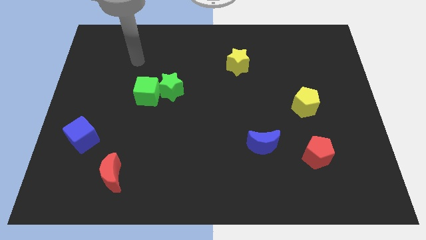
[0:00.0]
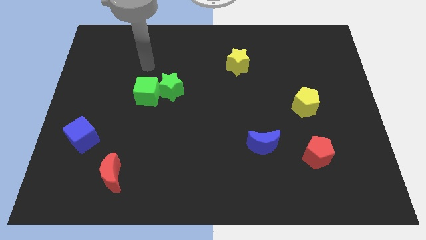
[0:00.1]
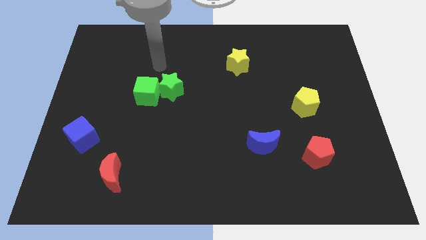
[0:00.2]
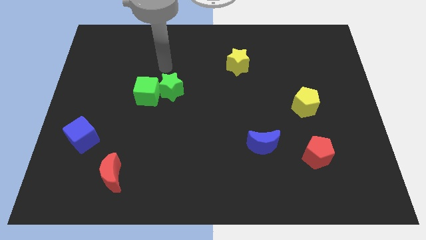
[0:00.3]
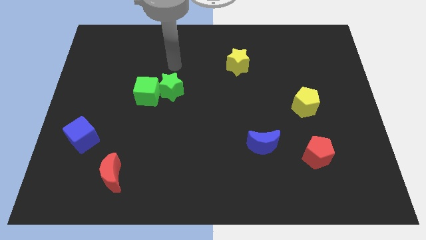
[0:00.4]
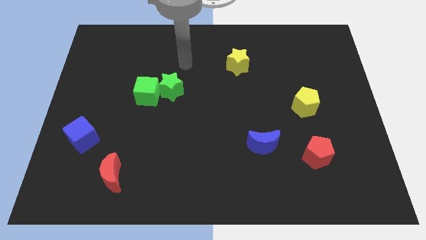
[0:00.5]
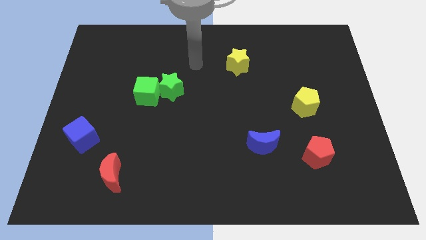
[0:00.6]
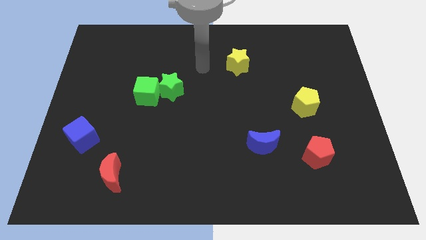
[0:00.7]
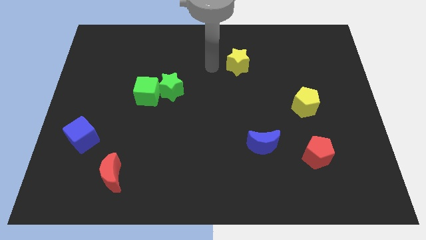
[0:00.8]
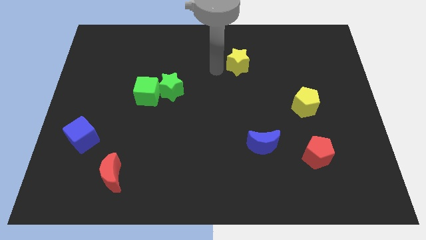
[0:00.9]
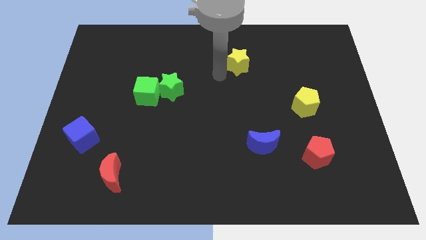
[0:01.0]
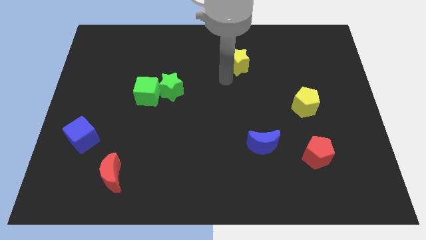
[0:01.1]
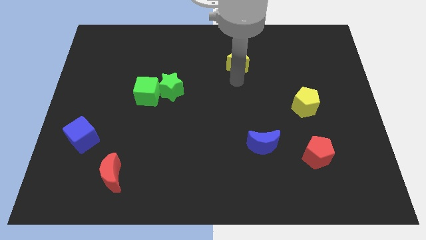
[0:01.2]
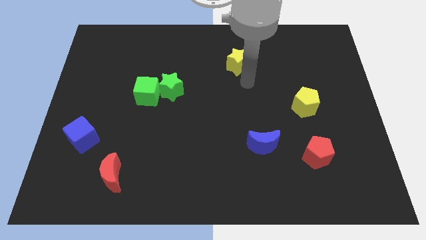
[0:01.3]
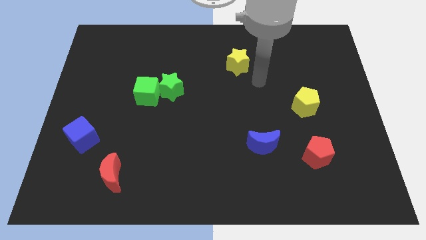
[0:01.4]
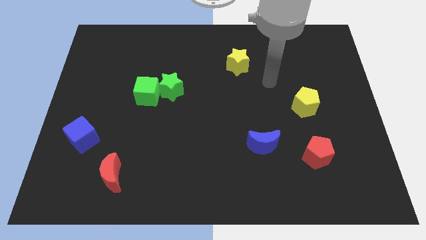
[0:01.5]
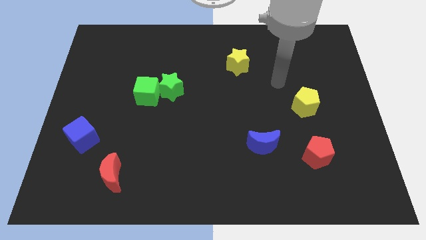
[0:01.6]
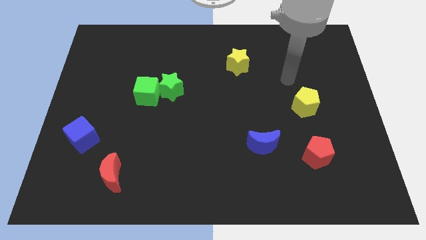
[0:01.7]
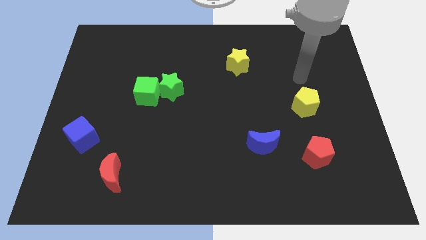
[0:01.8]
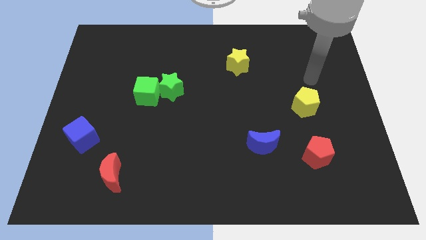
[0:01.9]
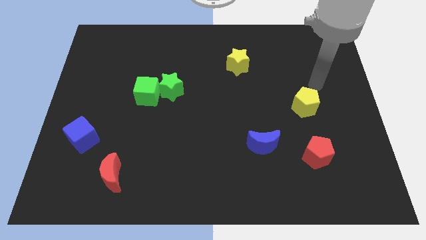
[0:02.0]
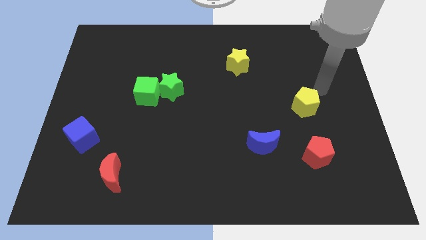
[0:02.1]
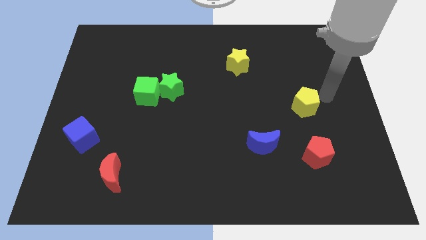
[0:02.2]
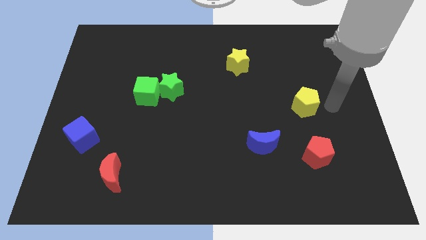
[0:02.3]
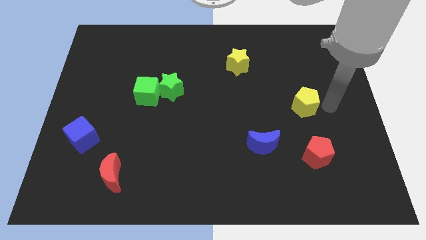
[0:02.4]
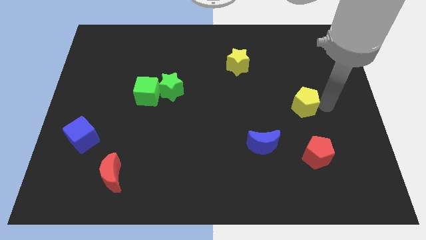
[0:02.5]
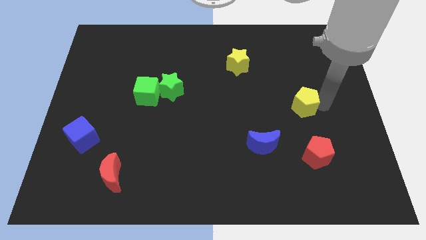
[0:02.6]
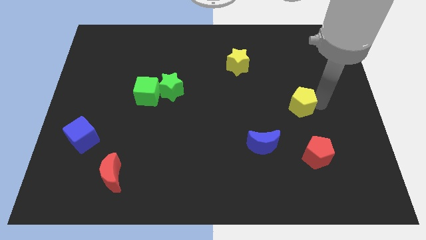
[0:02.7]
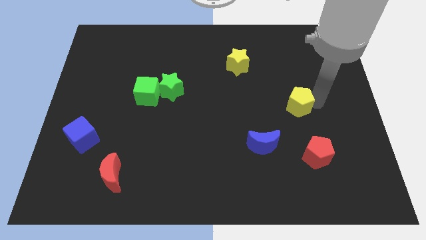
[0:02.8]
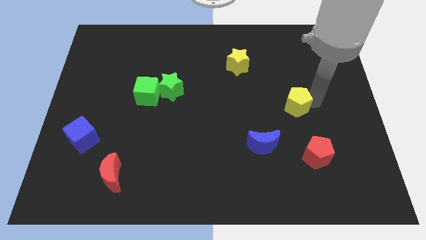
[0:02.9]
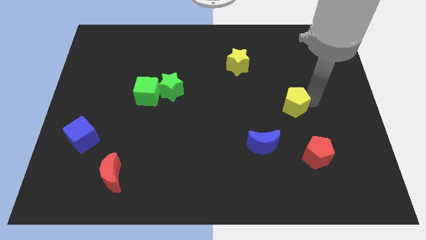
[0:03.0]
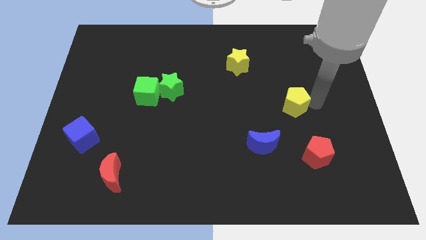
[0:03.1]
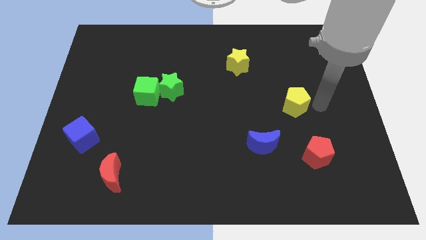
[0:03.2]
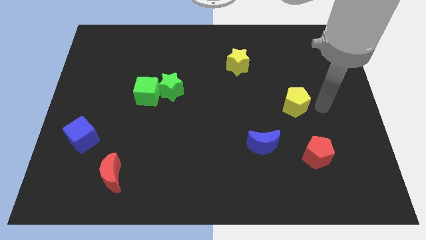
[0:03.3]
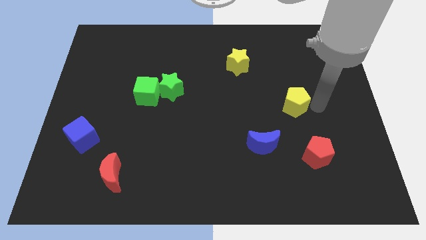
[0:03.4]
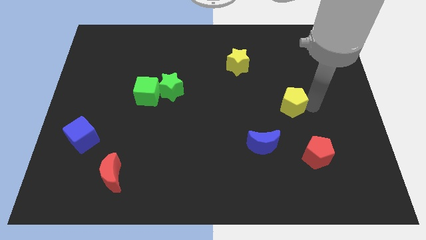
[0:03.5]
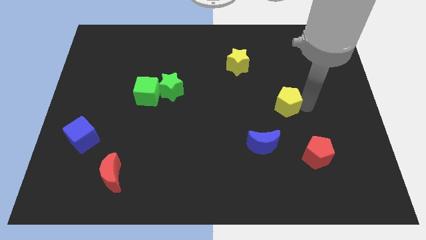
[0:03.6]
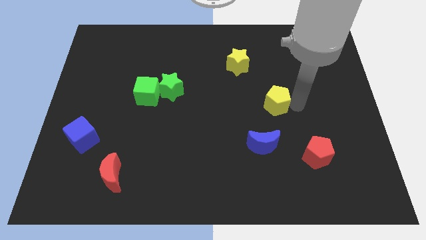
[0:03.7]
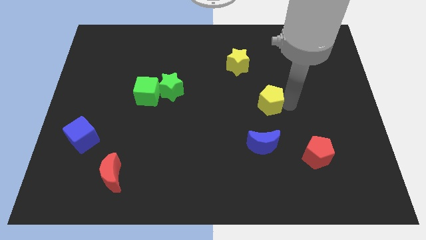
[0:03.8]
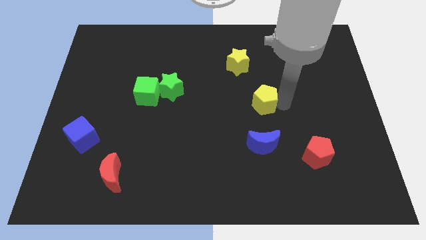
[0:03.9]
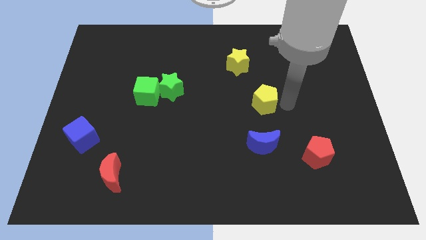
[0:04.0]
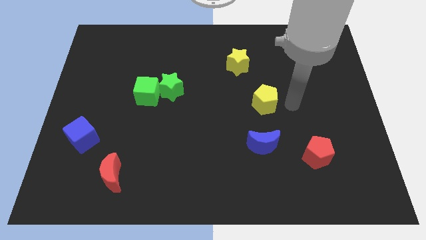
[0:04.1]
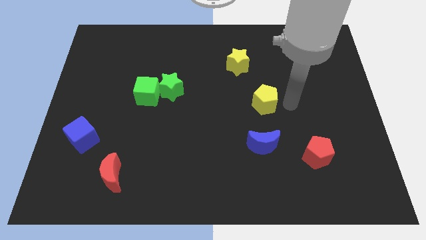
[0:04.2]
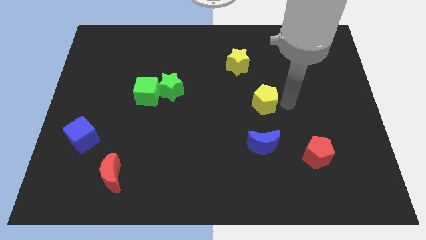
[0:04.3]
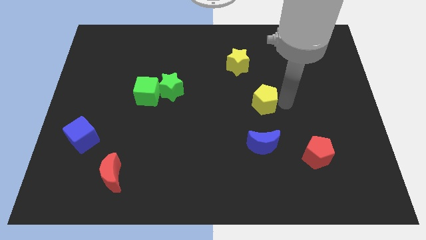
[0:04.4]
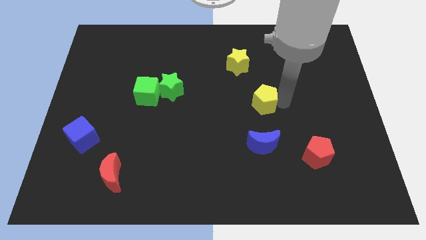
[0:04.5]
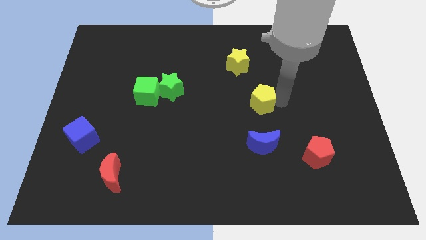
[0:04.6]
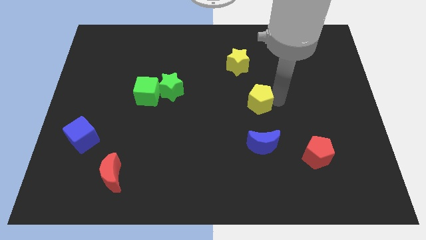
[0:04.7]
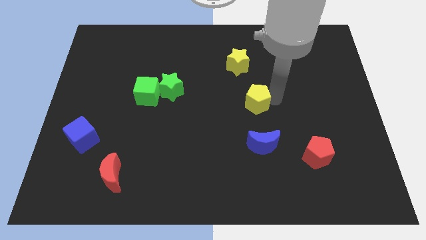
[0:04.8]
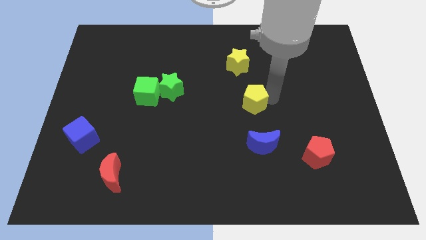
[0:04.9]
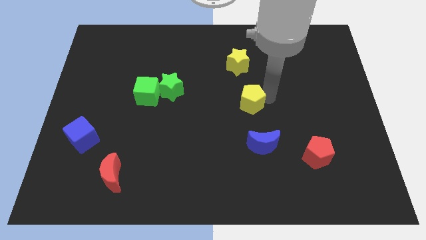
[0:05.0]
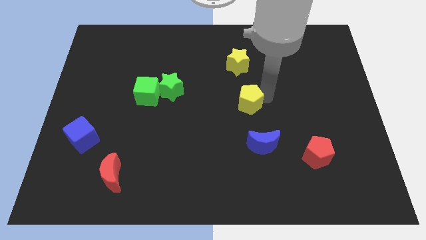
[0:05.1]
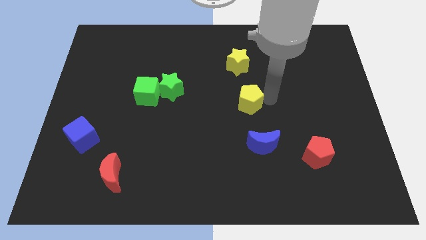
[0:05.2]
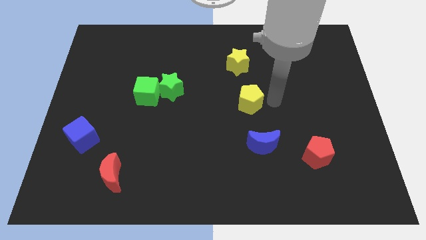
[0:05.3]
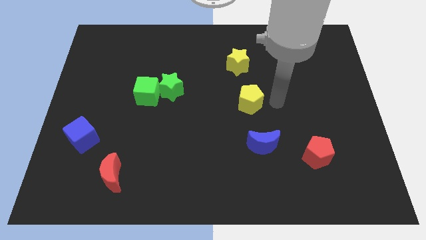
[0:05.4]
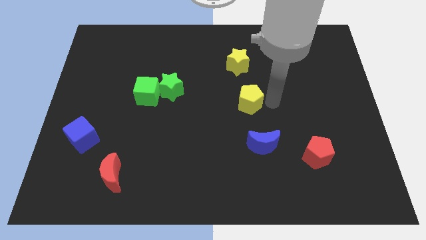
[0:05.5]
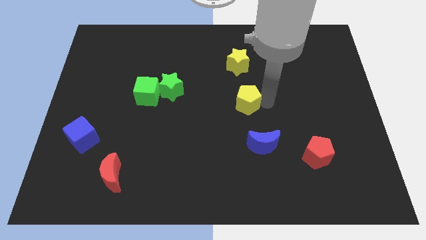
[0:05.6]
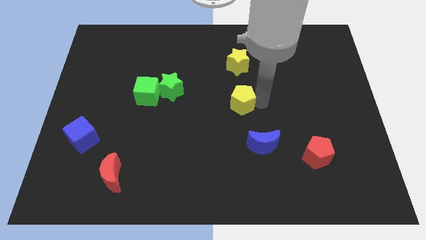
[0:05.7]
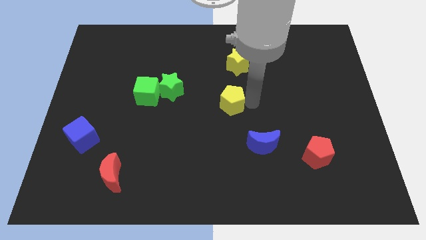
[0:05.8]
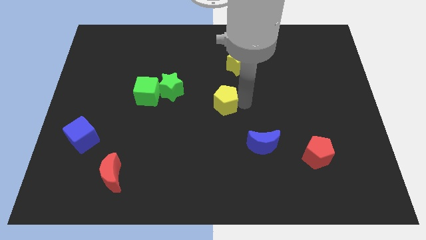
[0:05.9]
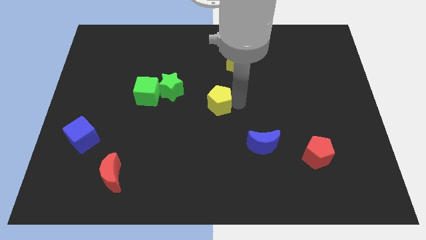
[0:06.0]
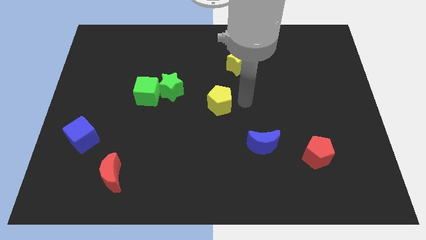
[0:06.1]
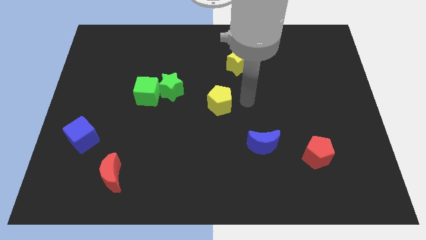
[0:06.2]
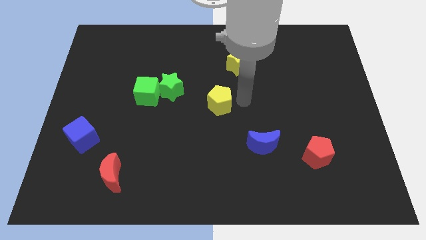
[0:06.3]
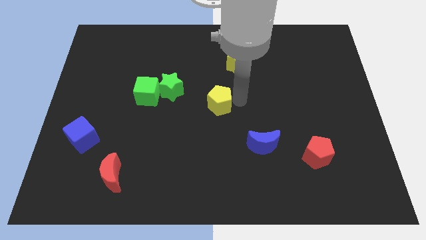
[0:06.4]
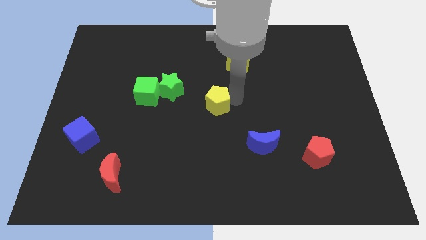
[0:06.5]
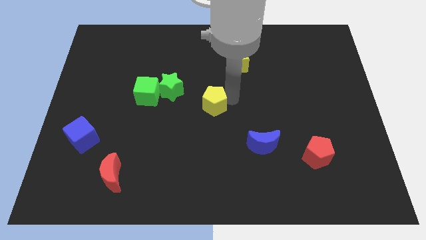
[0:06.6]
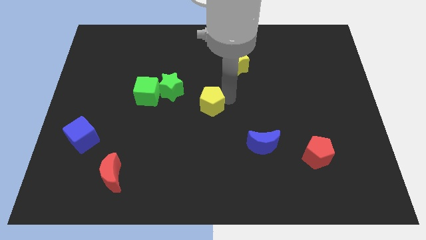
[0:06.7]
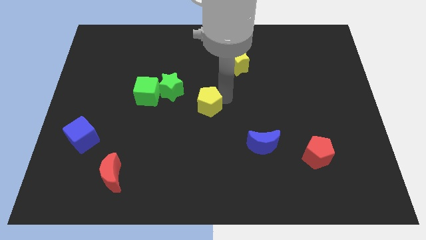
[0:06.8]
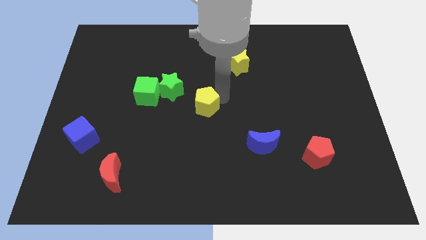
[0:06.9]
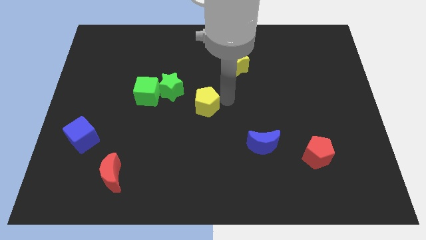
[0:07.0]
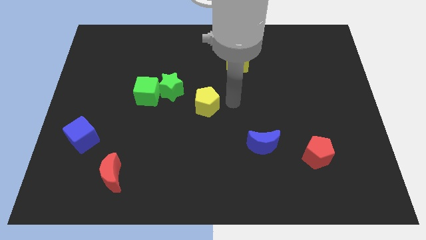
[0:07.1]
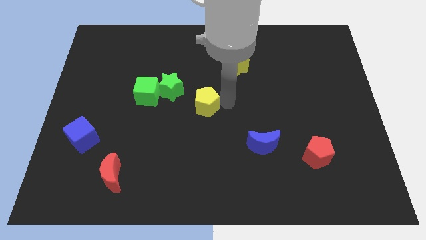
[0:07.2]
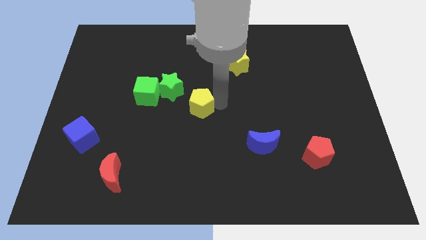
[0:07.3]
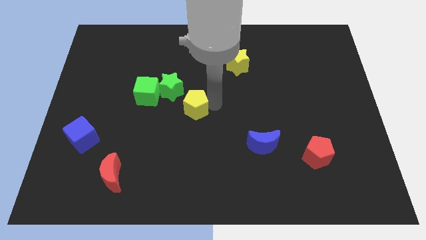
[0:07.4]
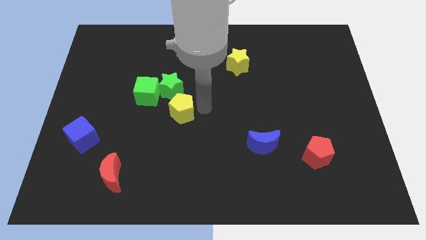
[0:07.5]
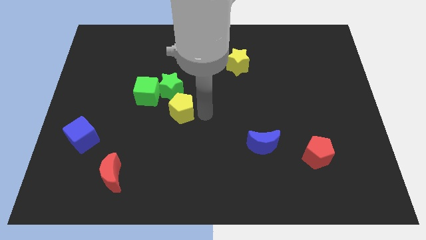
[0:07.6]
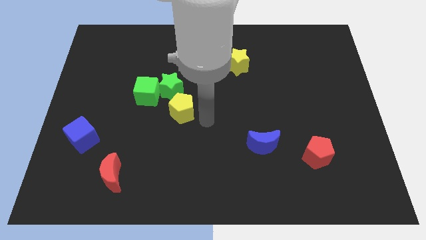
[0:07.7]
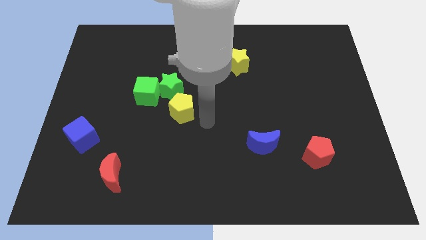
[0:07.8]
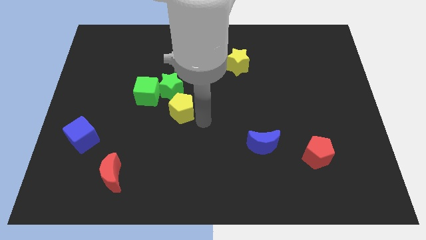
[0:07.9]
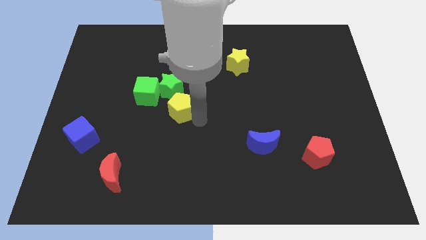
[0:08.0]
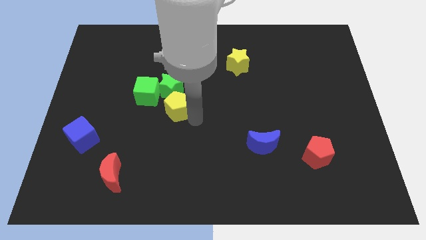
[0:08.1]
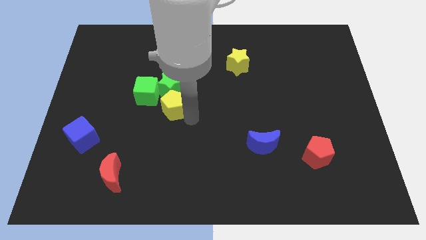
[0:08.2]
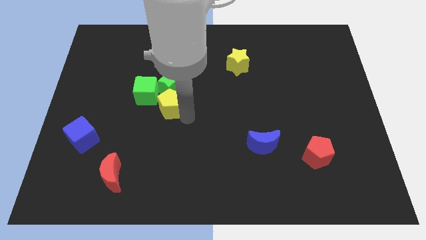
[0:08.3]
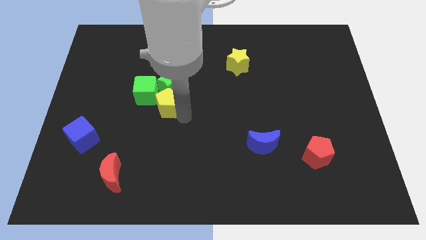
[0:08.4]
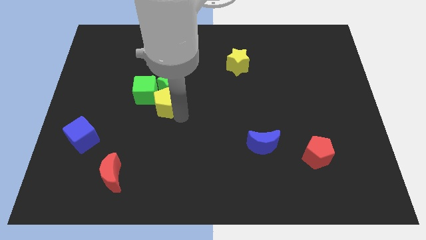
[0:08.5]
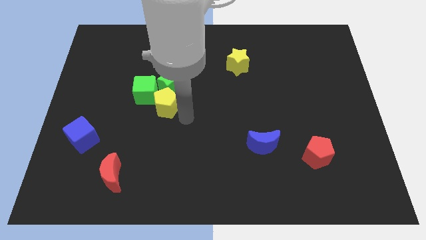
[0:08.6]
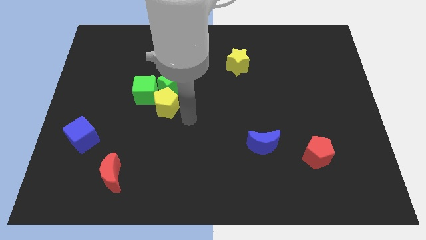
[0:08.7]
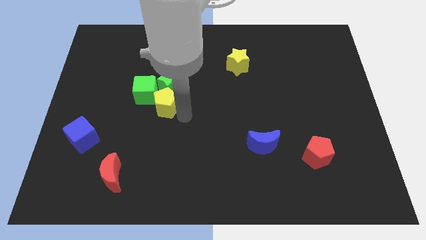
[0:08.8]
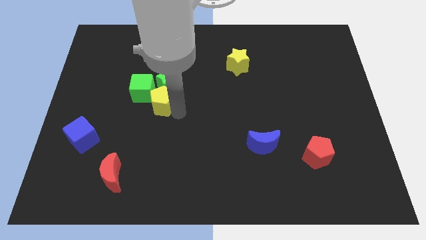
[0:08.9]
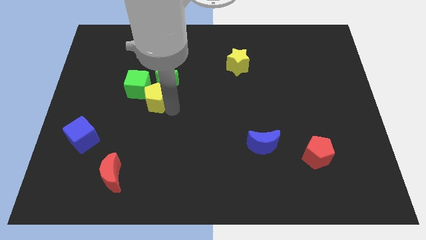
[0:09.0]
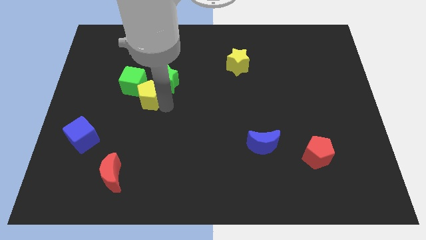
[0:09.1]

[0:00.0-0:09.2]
push the yellow pentagon next to the green cube
